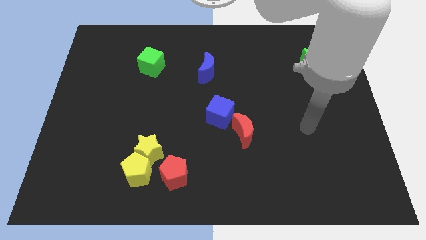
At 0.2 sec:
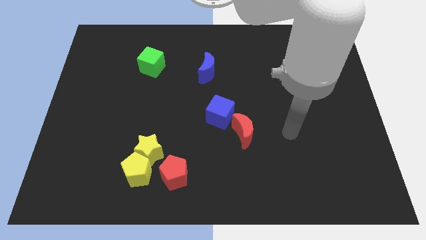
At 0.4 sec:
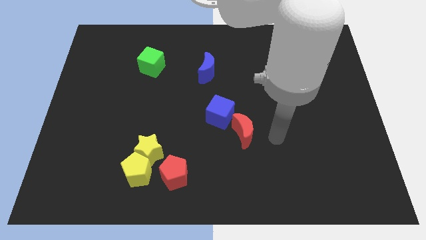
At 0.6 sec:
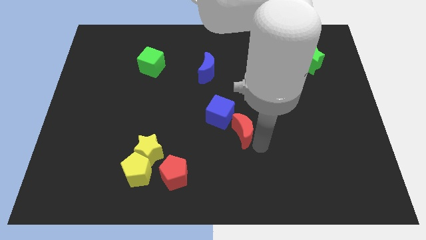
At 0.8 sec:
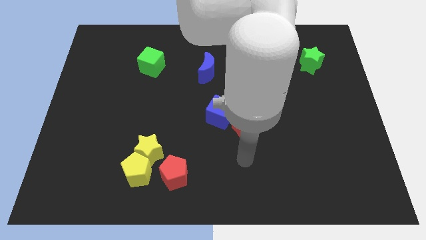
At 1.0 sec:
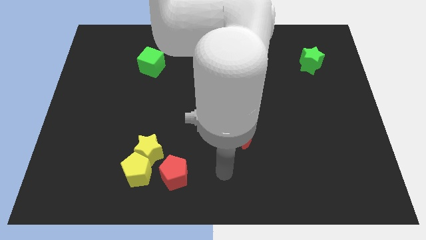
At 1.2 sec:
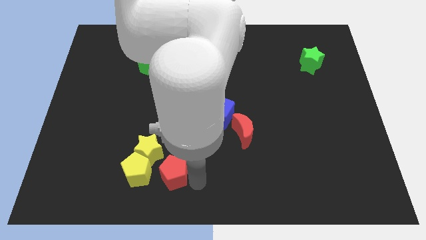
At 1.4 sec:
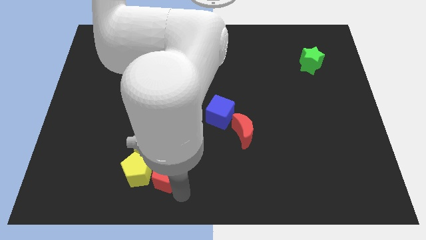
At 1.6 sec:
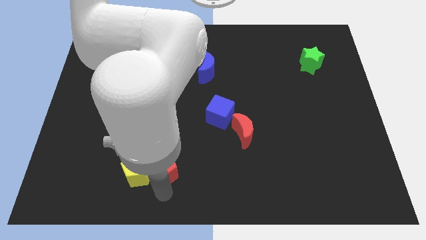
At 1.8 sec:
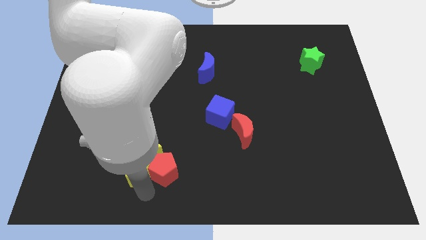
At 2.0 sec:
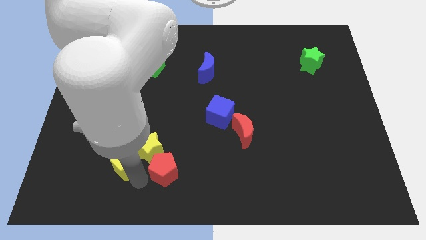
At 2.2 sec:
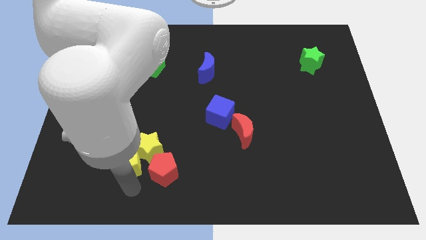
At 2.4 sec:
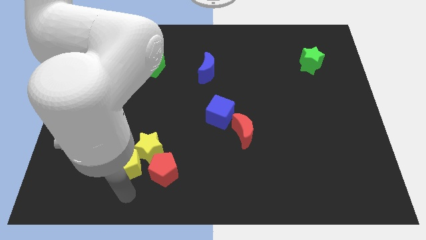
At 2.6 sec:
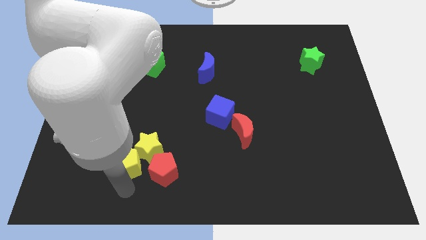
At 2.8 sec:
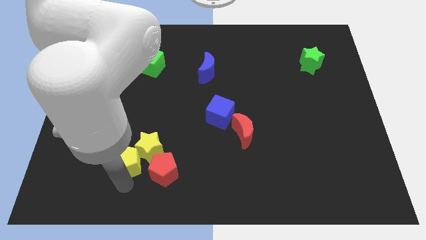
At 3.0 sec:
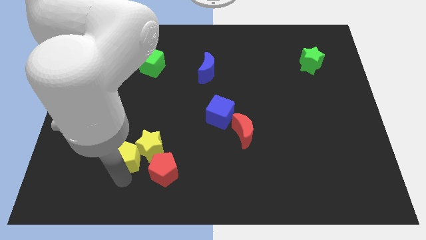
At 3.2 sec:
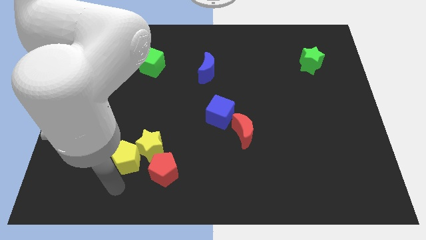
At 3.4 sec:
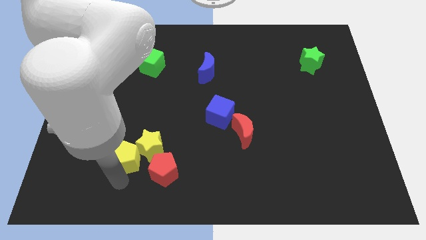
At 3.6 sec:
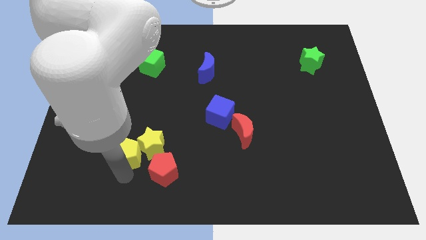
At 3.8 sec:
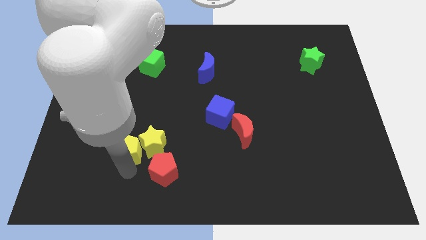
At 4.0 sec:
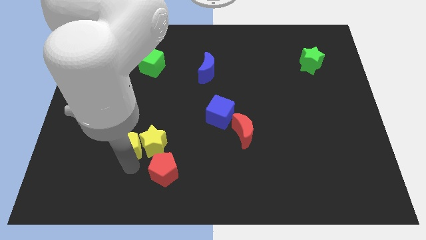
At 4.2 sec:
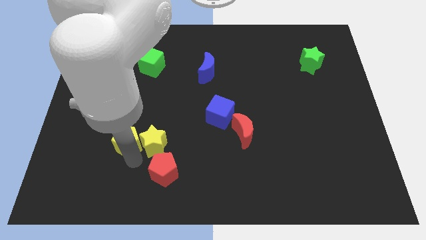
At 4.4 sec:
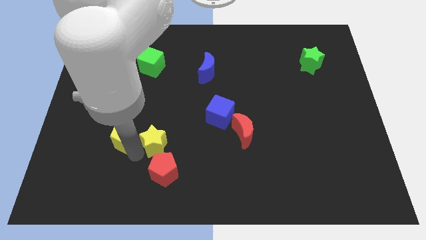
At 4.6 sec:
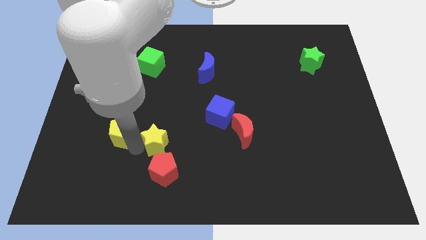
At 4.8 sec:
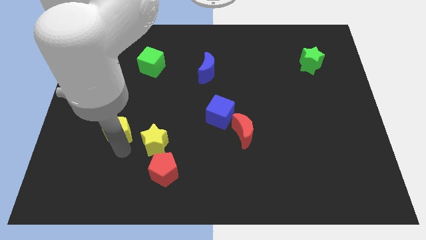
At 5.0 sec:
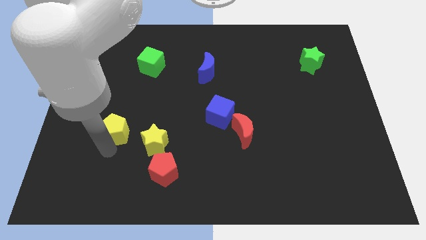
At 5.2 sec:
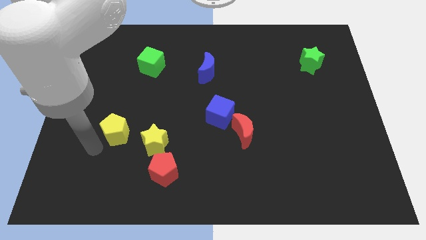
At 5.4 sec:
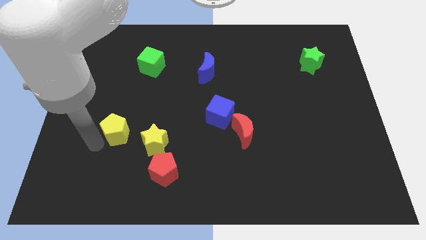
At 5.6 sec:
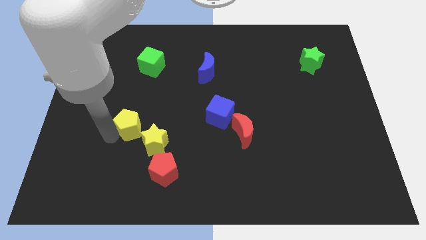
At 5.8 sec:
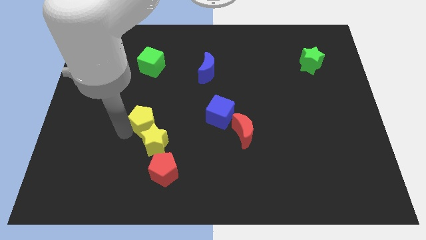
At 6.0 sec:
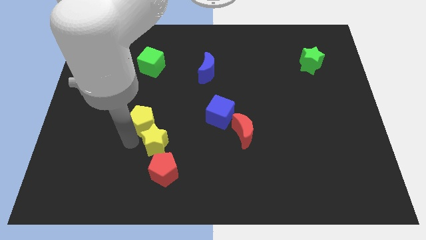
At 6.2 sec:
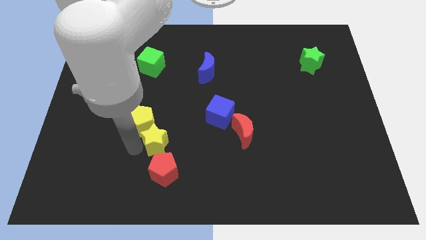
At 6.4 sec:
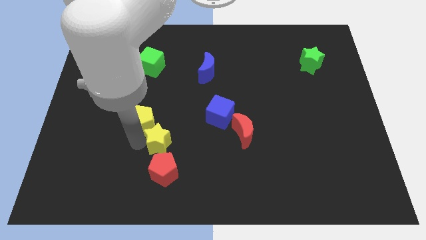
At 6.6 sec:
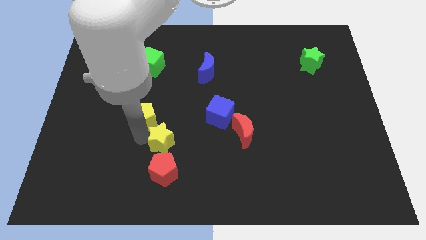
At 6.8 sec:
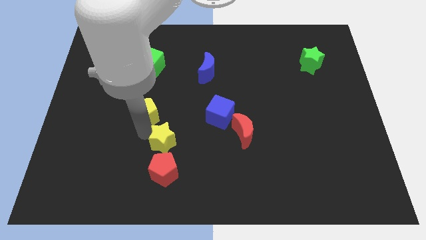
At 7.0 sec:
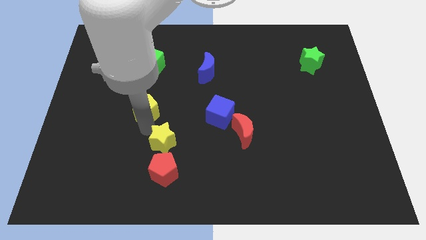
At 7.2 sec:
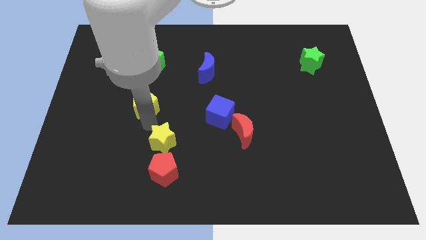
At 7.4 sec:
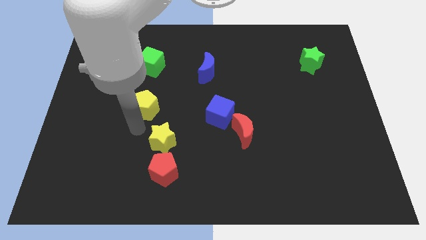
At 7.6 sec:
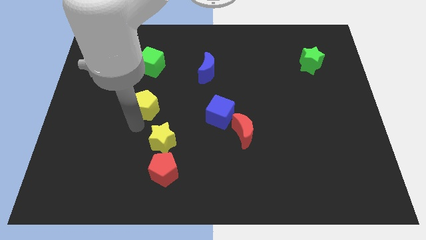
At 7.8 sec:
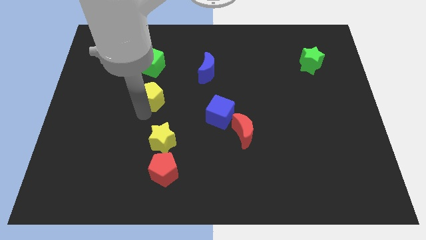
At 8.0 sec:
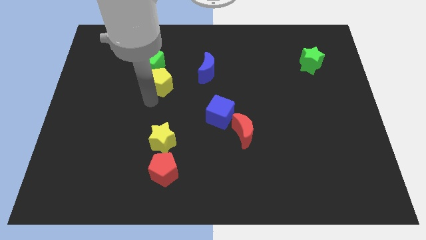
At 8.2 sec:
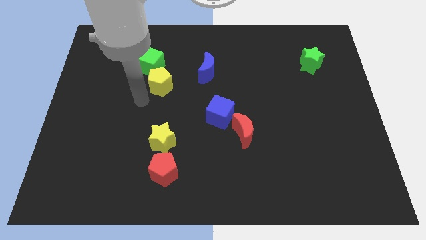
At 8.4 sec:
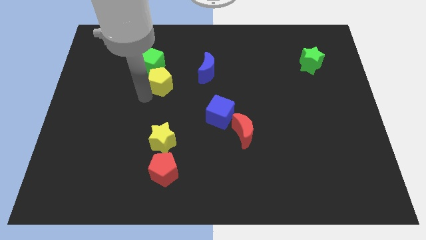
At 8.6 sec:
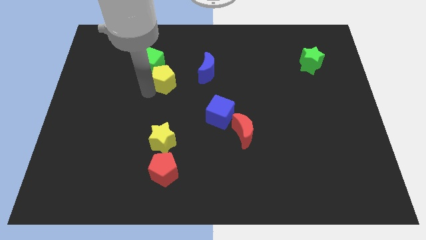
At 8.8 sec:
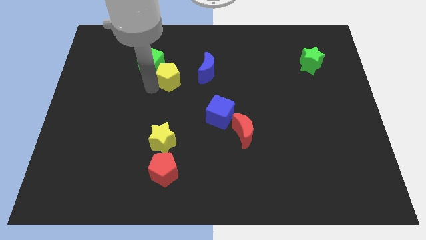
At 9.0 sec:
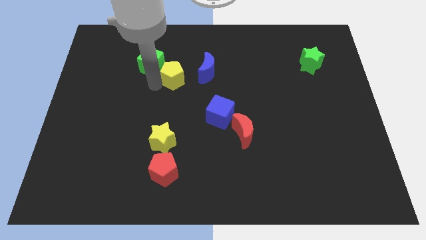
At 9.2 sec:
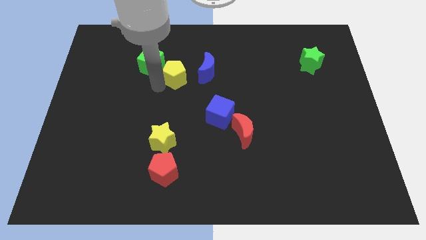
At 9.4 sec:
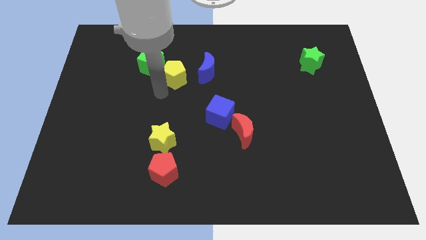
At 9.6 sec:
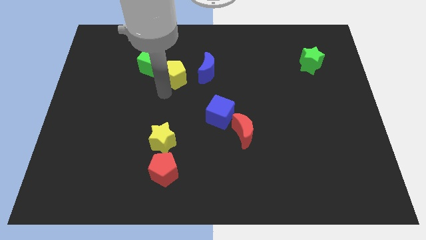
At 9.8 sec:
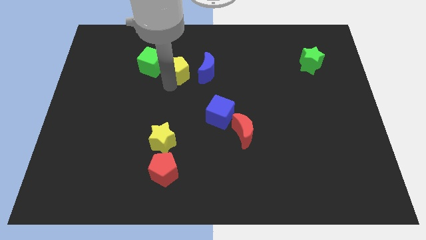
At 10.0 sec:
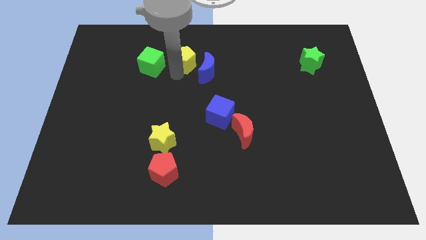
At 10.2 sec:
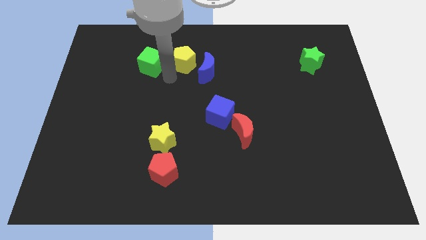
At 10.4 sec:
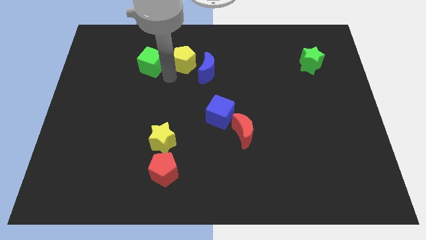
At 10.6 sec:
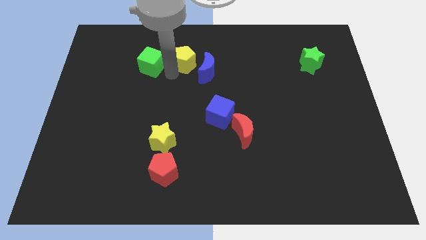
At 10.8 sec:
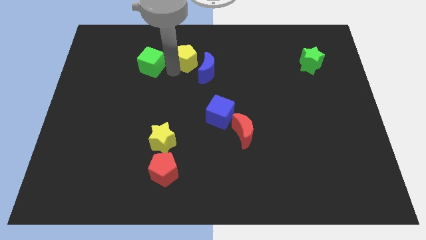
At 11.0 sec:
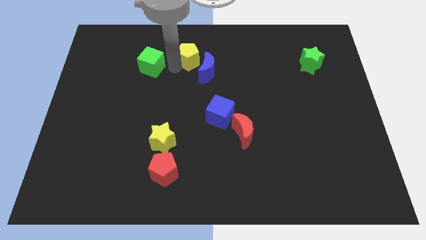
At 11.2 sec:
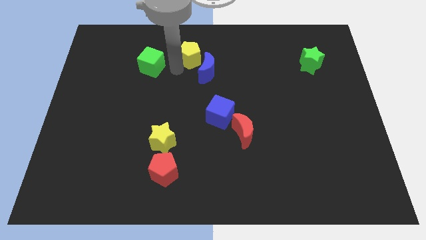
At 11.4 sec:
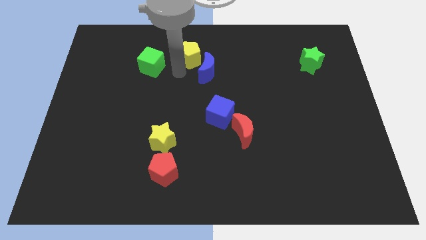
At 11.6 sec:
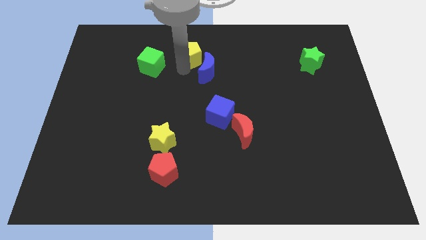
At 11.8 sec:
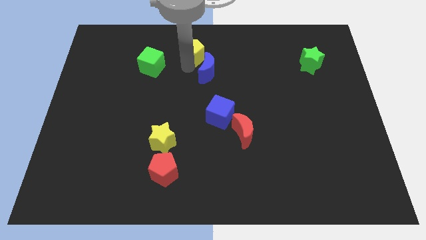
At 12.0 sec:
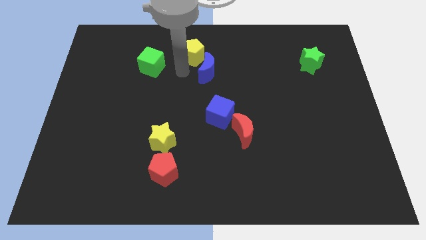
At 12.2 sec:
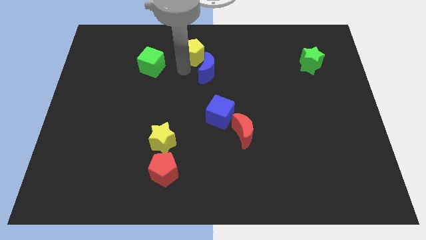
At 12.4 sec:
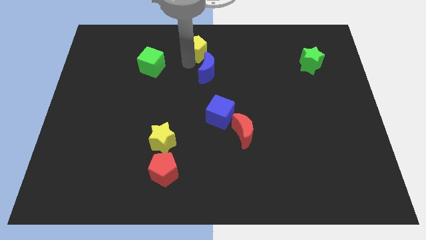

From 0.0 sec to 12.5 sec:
put the yellow pentagon to the top side
